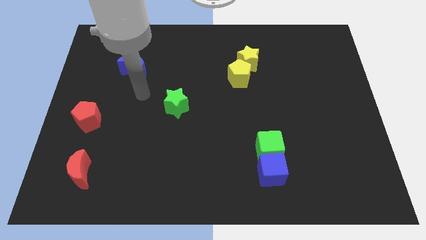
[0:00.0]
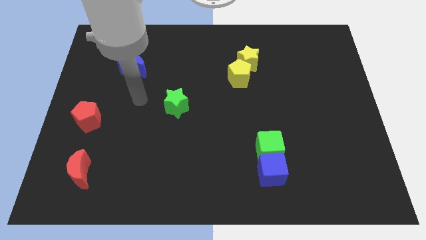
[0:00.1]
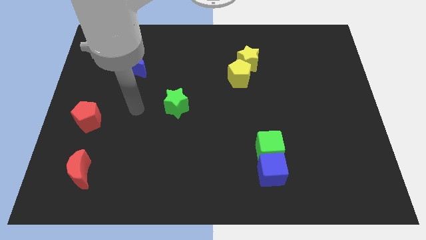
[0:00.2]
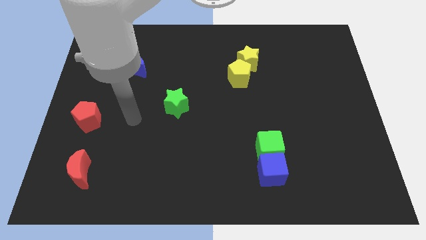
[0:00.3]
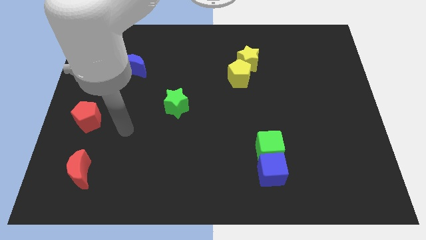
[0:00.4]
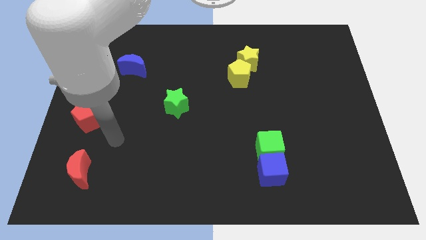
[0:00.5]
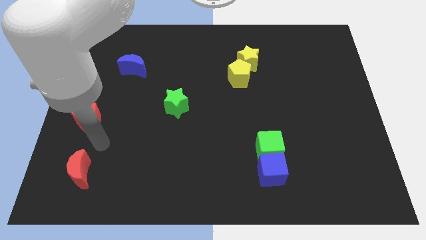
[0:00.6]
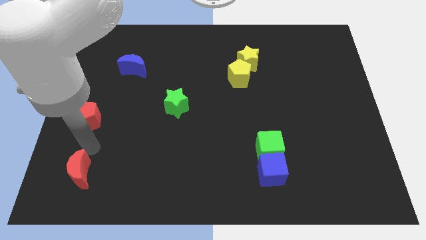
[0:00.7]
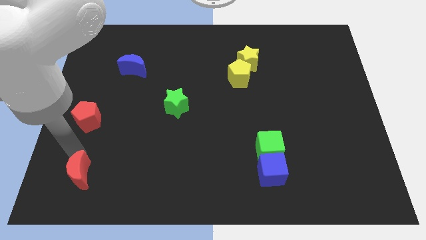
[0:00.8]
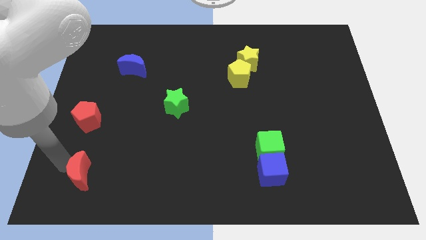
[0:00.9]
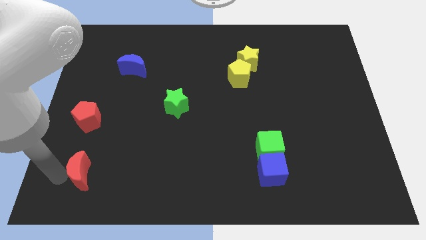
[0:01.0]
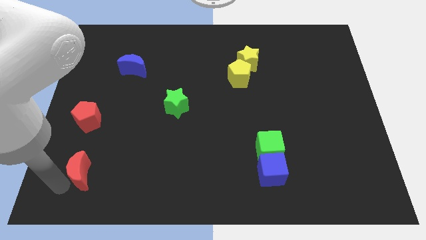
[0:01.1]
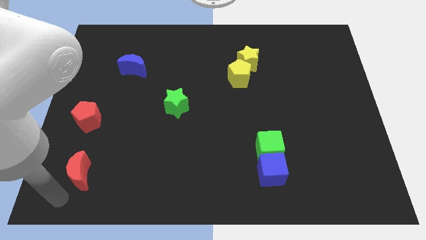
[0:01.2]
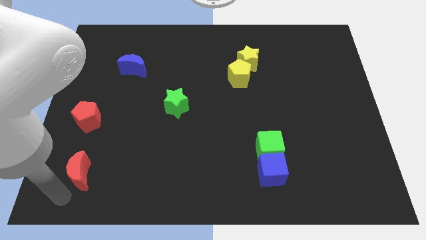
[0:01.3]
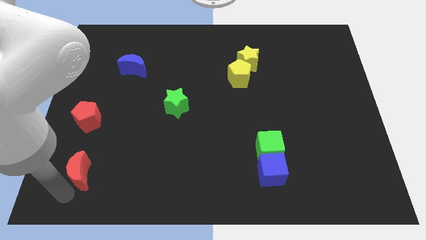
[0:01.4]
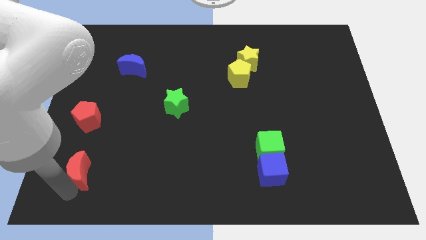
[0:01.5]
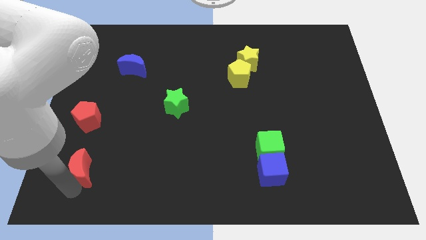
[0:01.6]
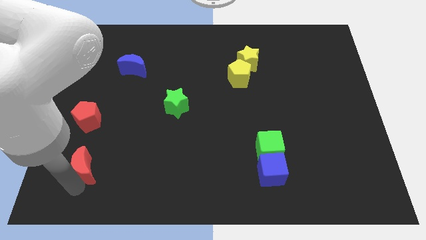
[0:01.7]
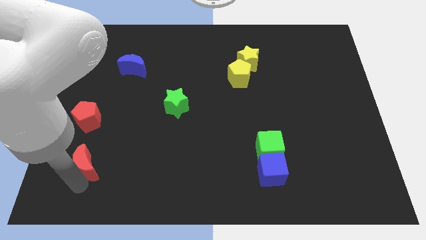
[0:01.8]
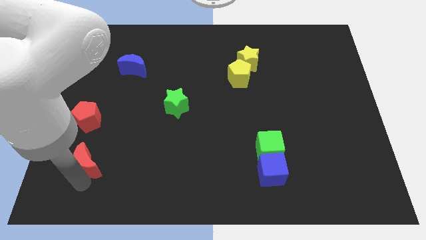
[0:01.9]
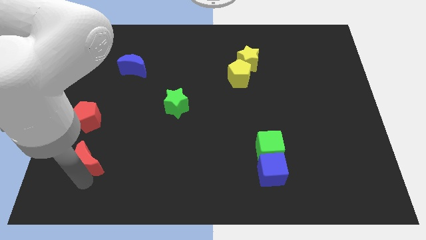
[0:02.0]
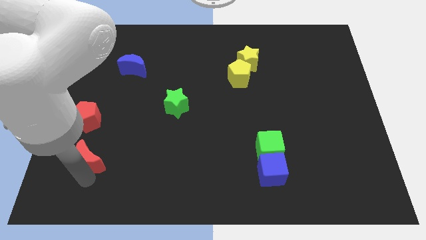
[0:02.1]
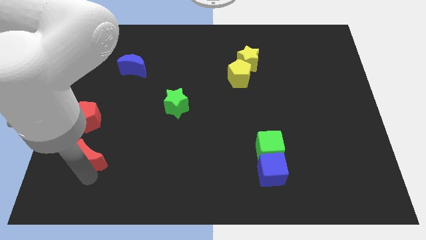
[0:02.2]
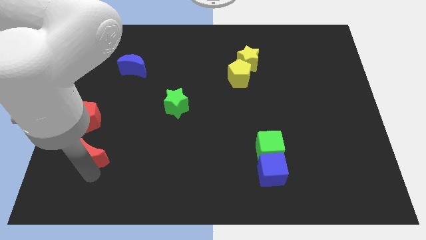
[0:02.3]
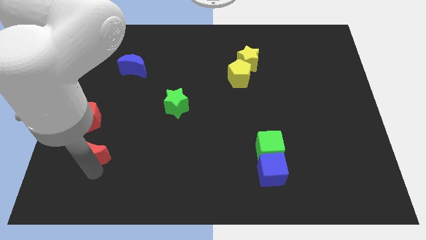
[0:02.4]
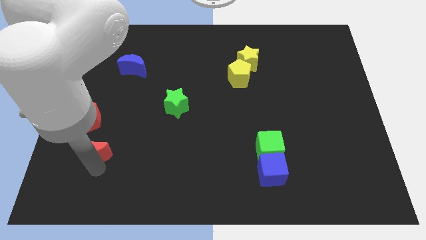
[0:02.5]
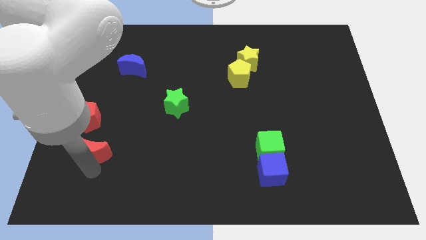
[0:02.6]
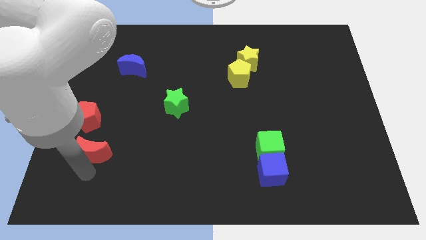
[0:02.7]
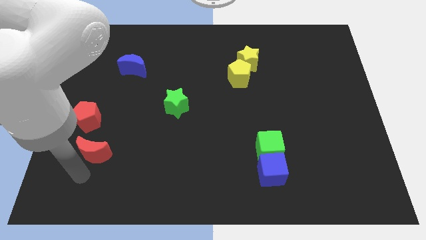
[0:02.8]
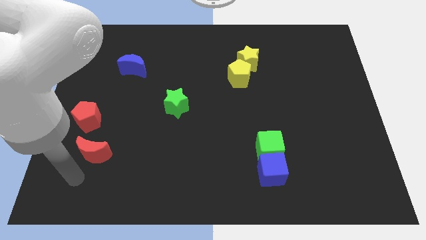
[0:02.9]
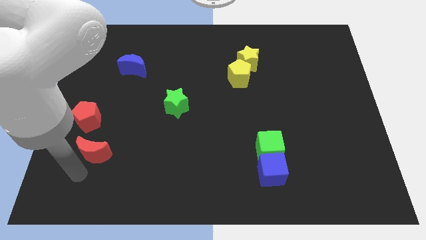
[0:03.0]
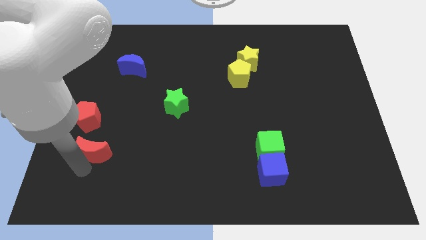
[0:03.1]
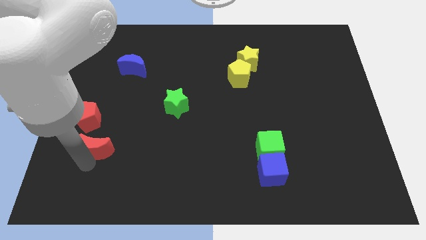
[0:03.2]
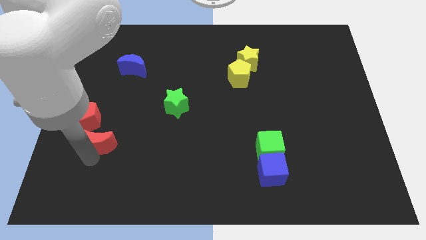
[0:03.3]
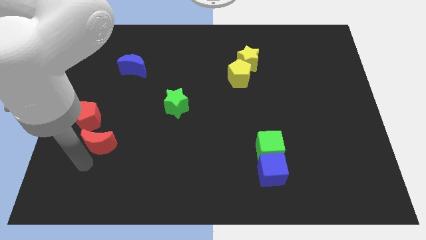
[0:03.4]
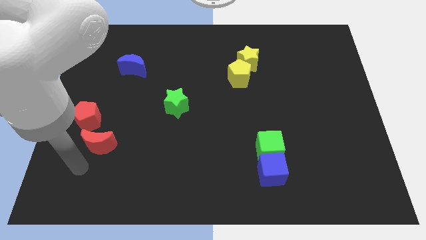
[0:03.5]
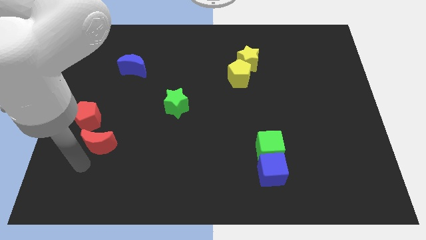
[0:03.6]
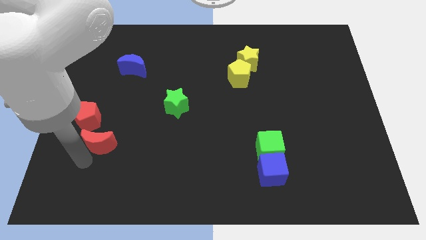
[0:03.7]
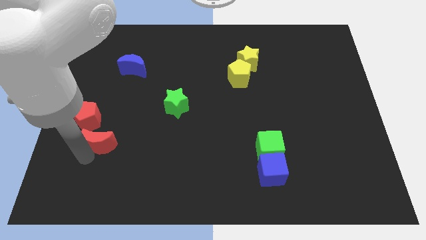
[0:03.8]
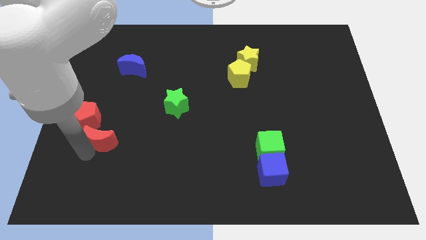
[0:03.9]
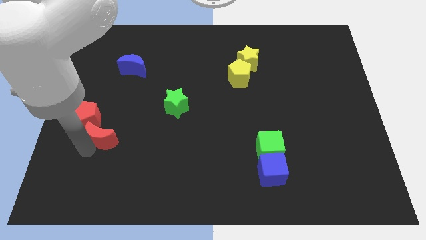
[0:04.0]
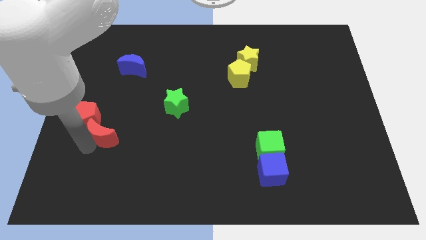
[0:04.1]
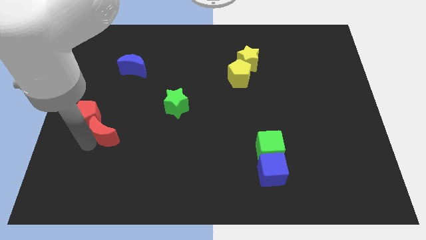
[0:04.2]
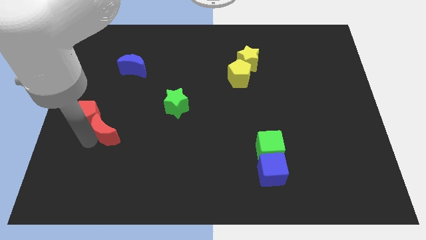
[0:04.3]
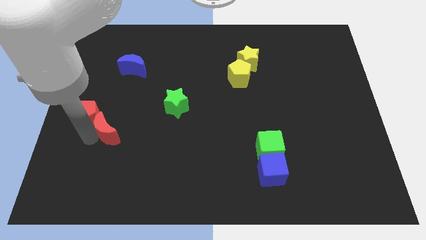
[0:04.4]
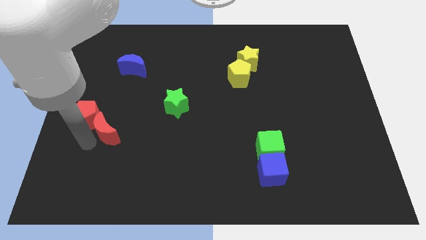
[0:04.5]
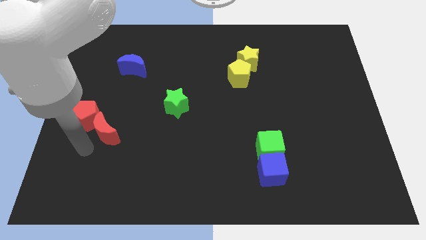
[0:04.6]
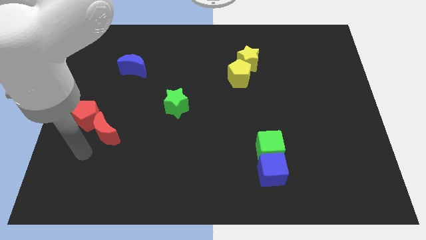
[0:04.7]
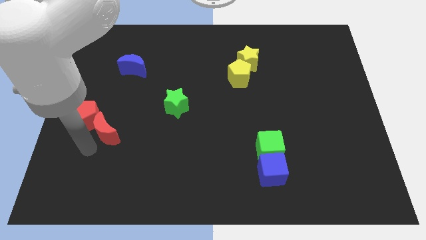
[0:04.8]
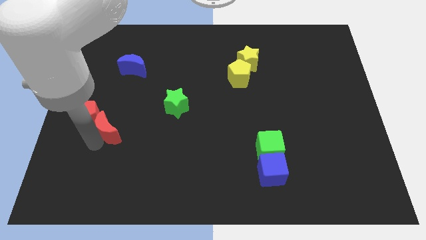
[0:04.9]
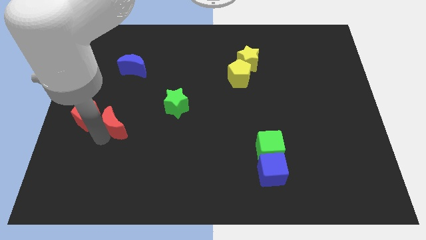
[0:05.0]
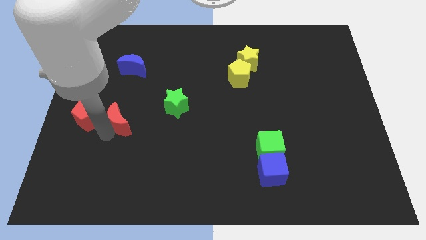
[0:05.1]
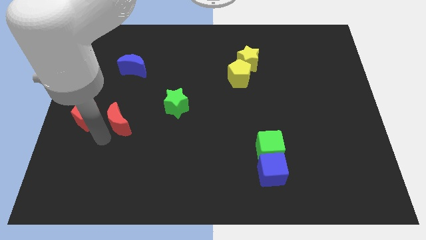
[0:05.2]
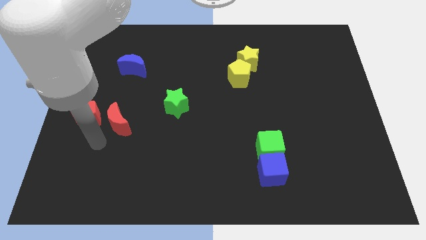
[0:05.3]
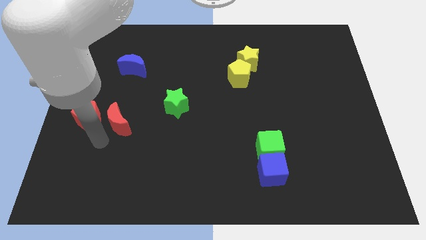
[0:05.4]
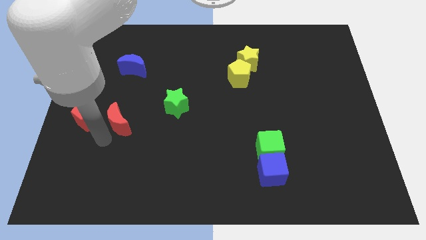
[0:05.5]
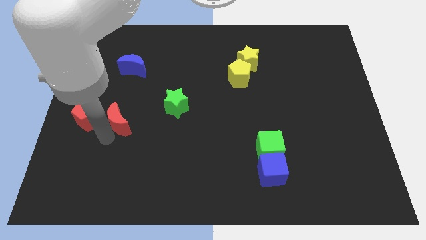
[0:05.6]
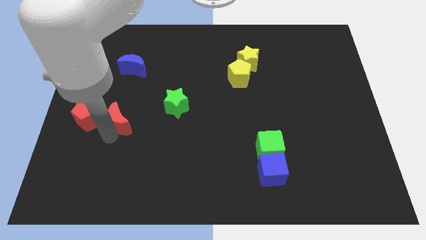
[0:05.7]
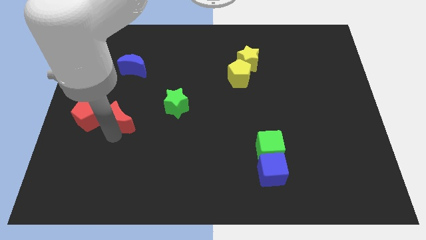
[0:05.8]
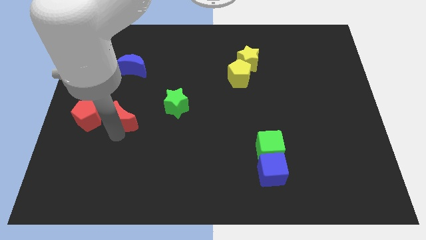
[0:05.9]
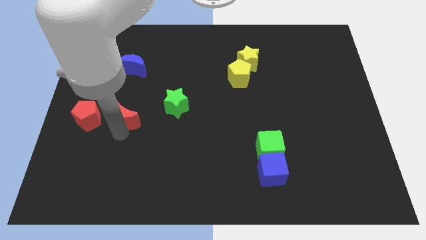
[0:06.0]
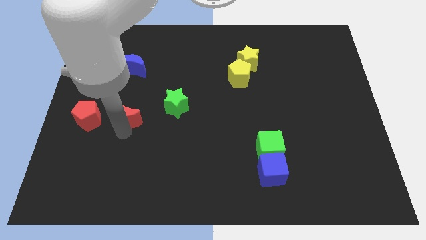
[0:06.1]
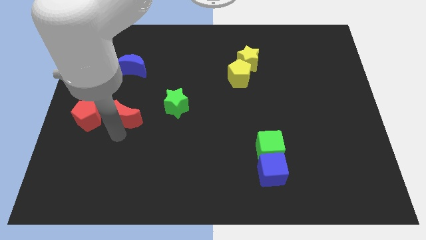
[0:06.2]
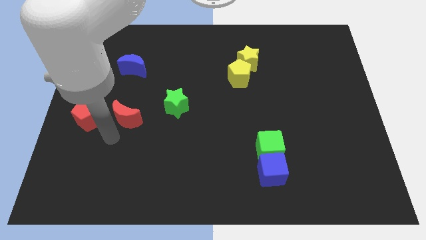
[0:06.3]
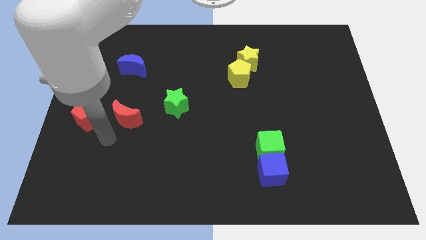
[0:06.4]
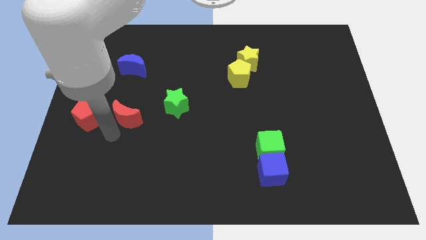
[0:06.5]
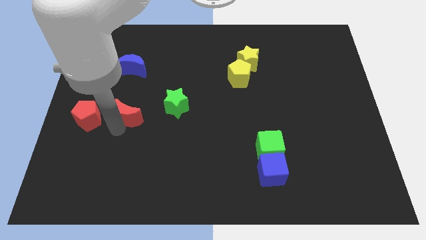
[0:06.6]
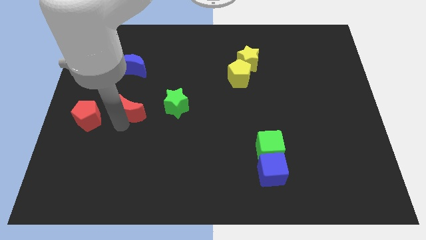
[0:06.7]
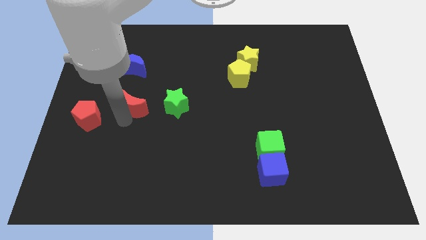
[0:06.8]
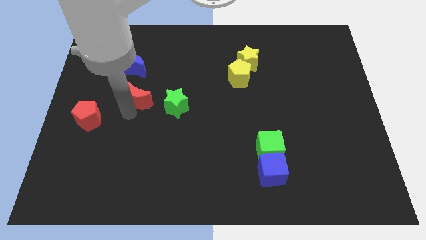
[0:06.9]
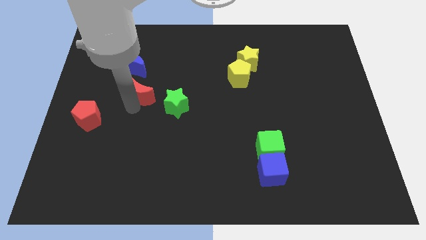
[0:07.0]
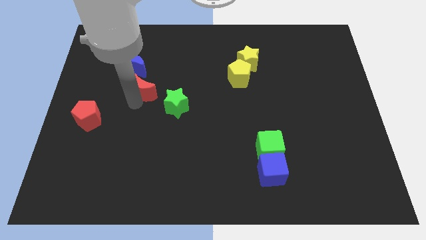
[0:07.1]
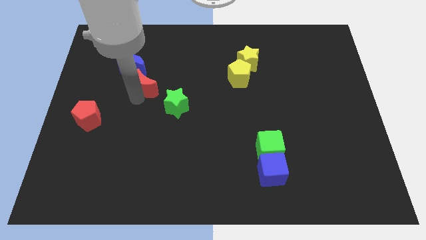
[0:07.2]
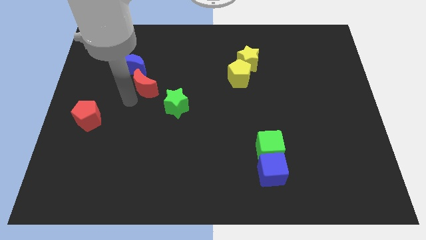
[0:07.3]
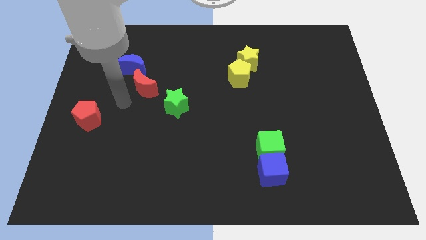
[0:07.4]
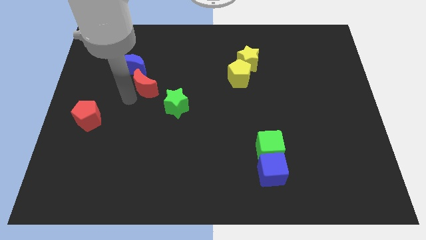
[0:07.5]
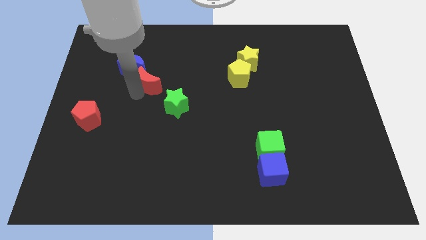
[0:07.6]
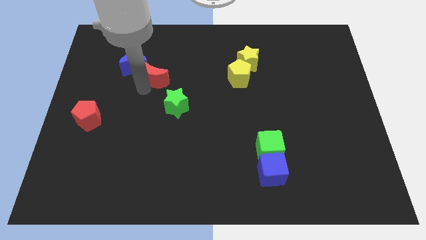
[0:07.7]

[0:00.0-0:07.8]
move the red moon just right of the blue moon
